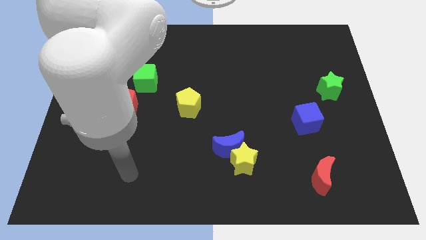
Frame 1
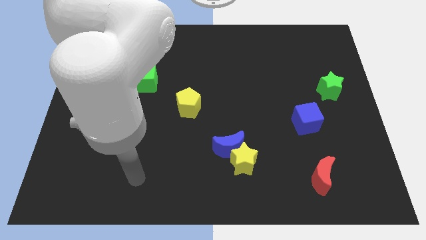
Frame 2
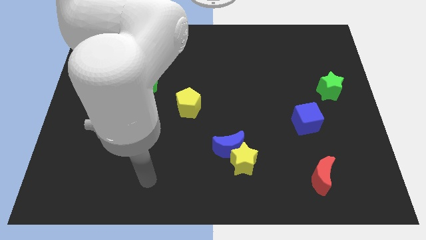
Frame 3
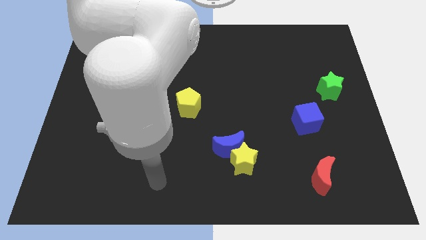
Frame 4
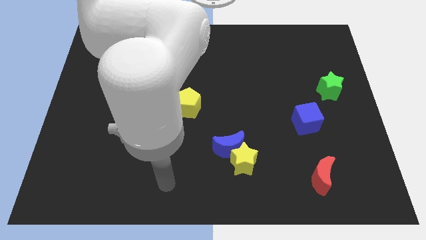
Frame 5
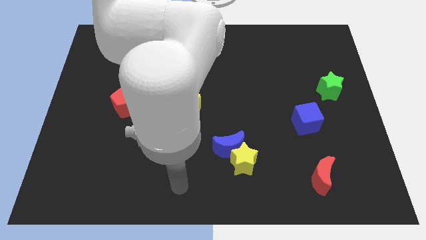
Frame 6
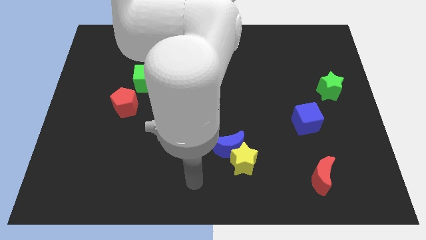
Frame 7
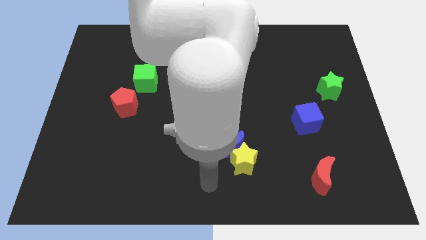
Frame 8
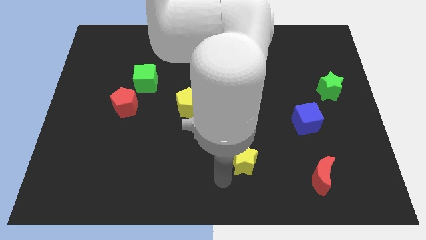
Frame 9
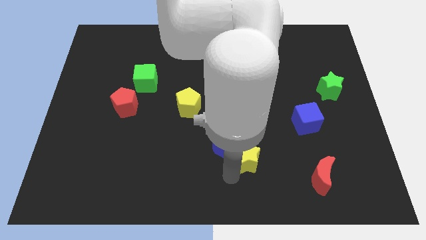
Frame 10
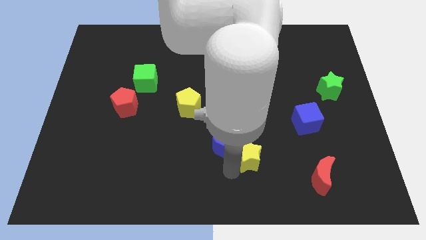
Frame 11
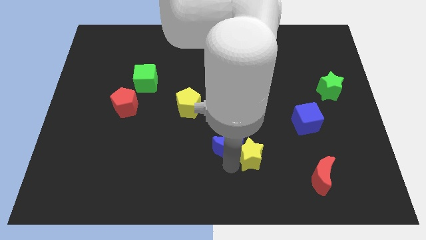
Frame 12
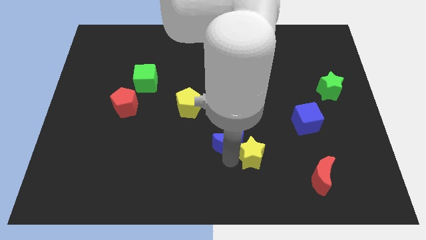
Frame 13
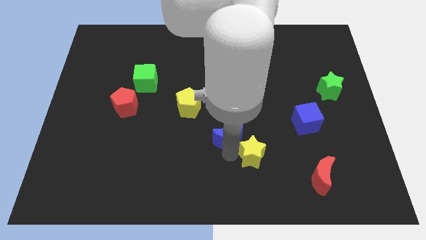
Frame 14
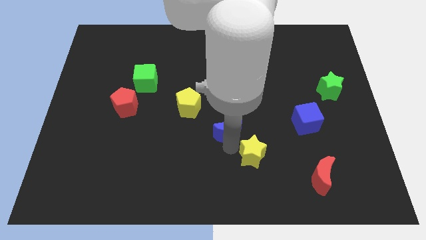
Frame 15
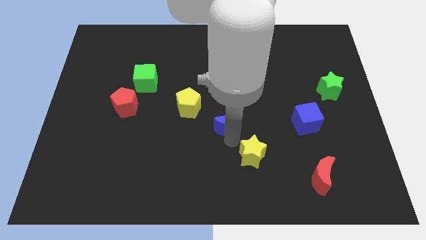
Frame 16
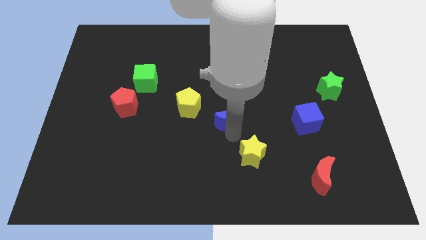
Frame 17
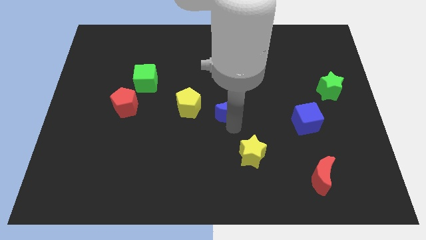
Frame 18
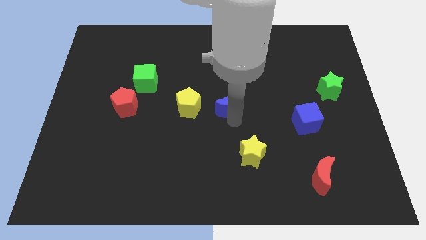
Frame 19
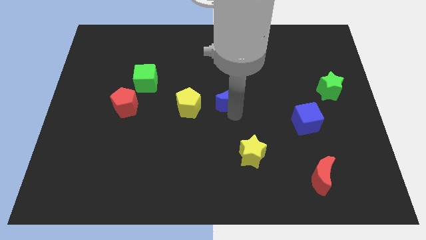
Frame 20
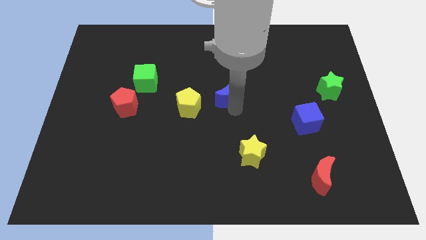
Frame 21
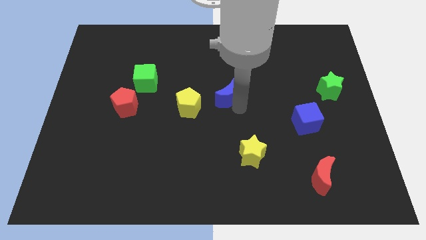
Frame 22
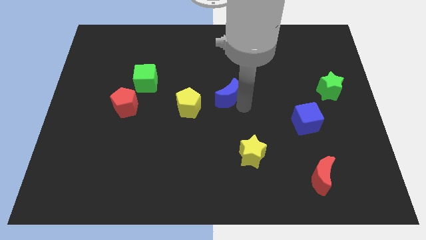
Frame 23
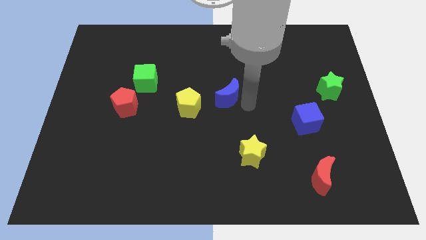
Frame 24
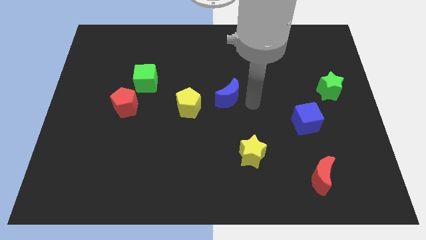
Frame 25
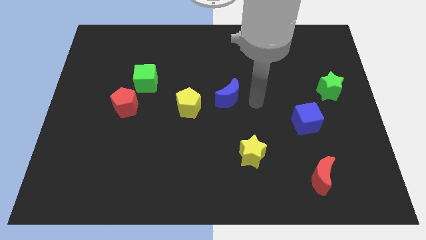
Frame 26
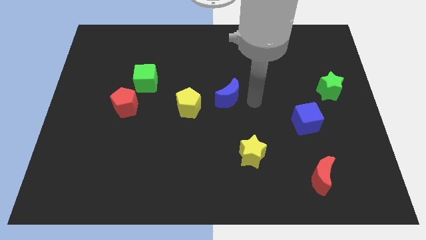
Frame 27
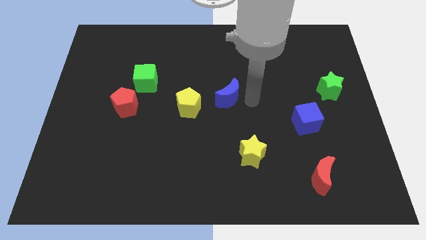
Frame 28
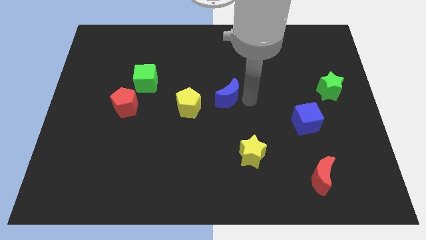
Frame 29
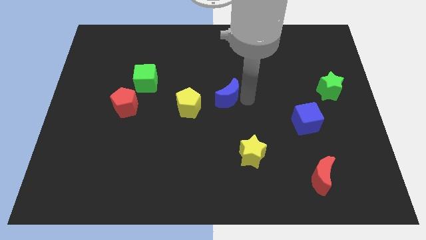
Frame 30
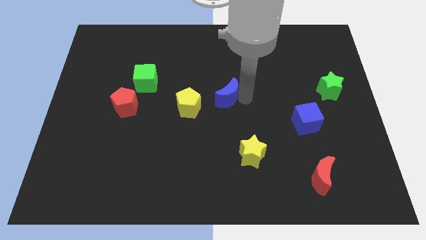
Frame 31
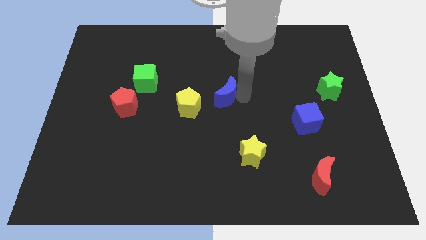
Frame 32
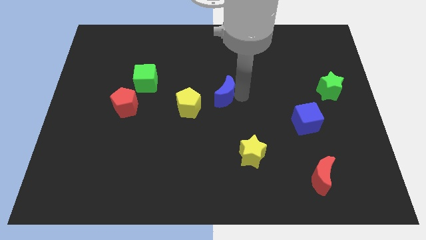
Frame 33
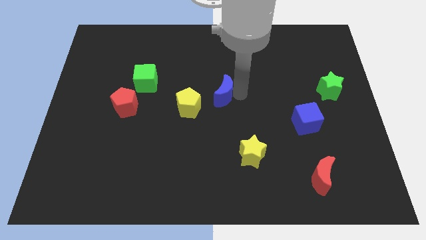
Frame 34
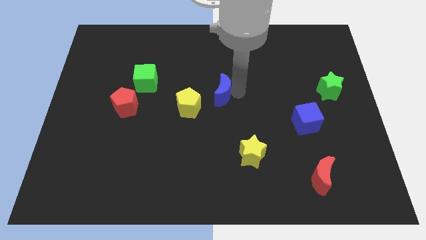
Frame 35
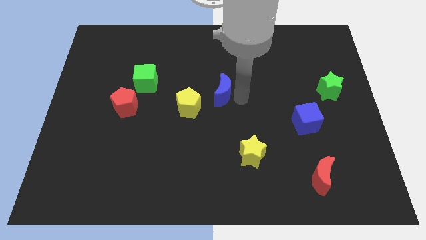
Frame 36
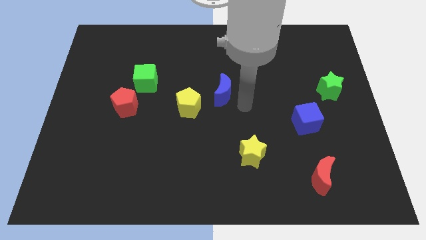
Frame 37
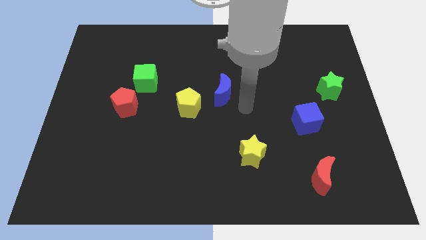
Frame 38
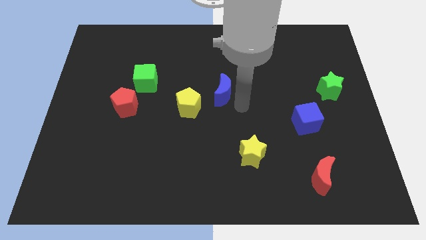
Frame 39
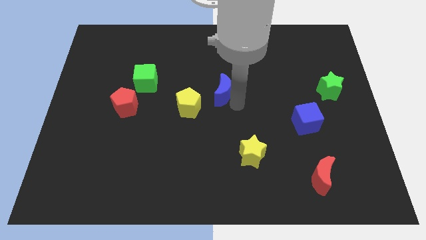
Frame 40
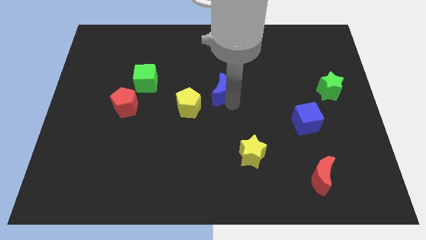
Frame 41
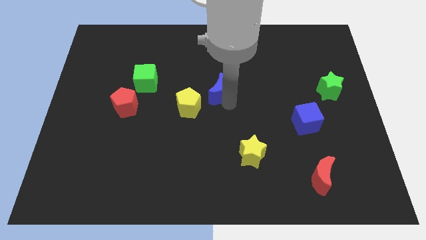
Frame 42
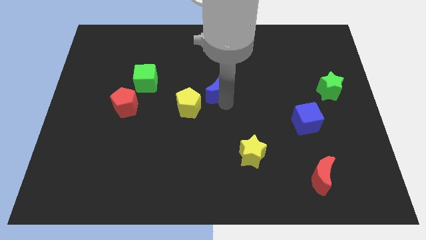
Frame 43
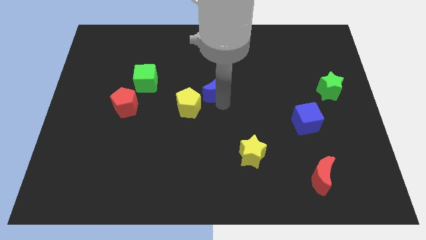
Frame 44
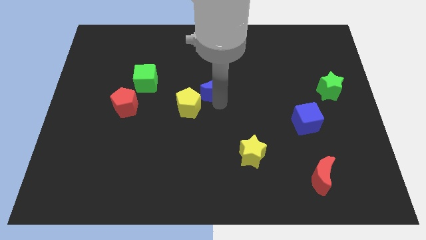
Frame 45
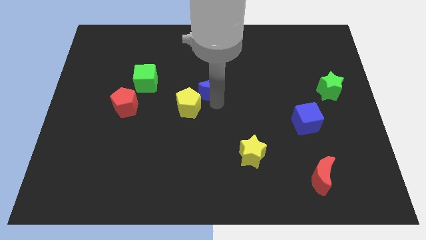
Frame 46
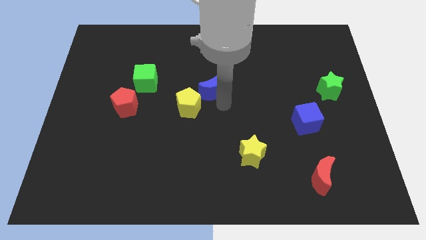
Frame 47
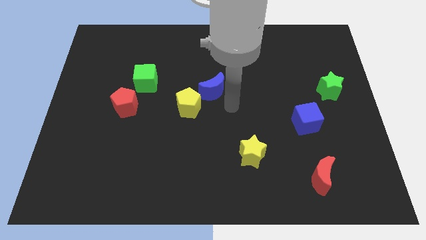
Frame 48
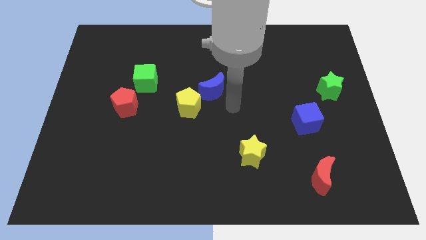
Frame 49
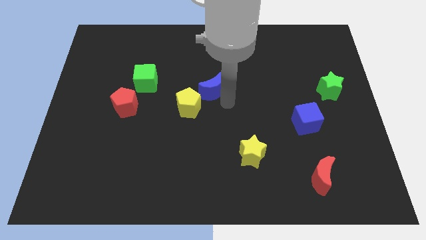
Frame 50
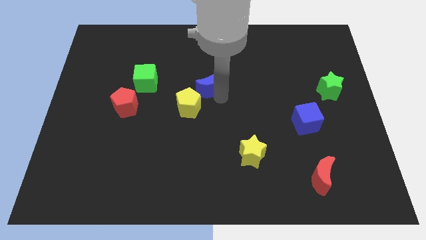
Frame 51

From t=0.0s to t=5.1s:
put the blue moon to the top side of the yellow pentagon

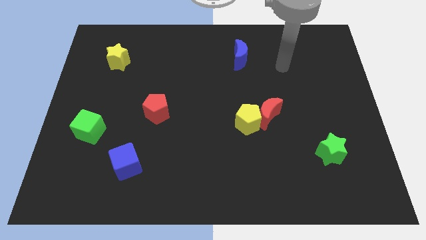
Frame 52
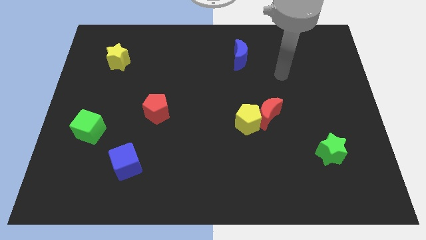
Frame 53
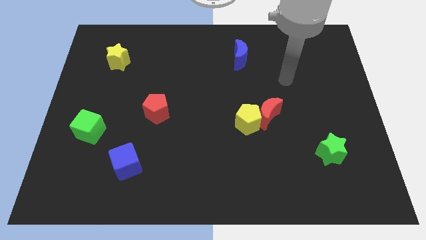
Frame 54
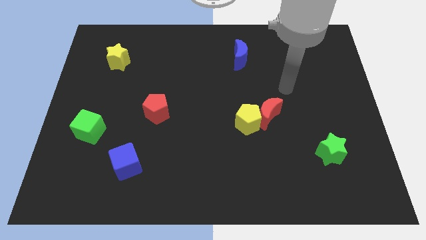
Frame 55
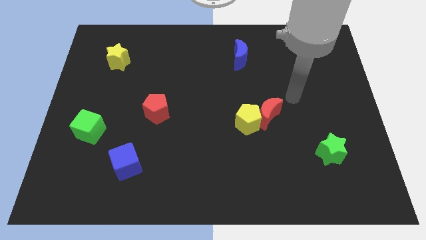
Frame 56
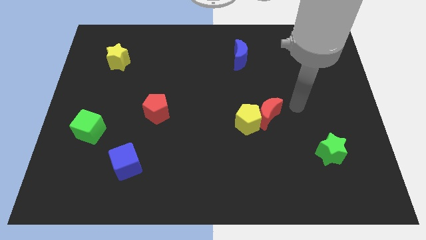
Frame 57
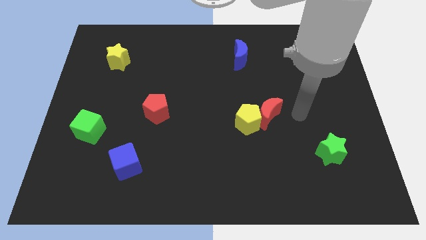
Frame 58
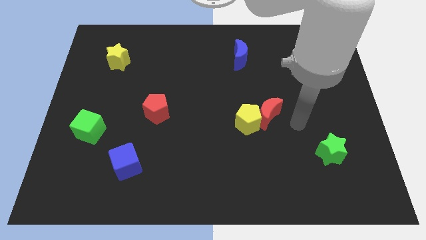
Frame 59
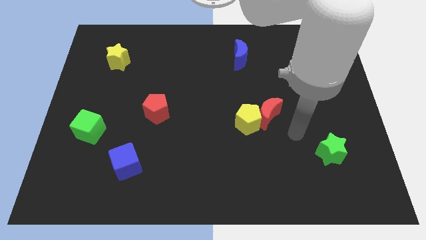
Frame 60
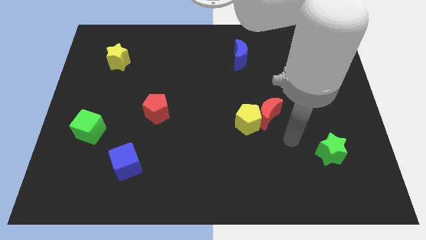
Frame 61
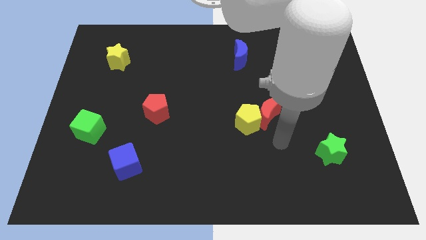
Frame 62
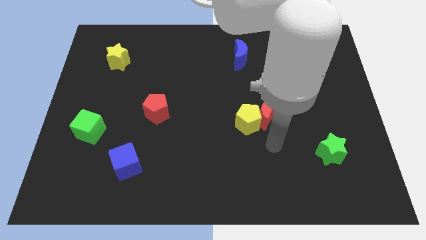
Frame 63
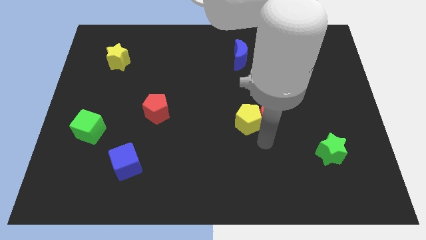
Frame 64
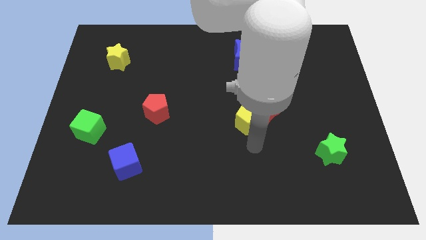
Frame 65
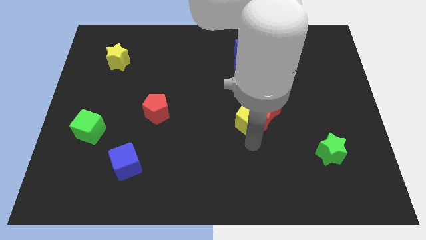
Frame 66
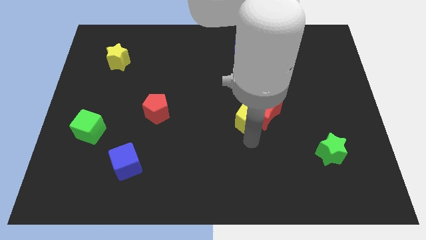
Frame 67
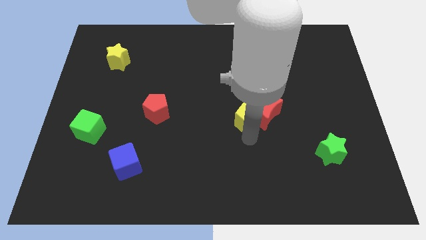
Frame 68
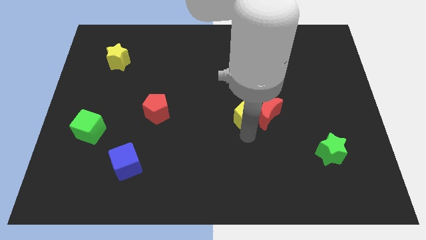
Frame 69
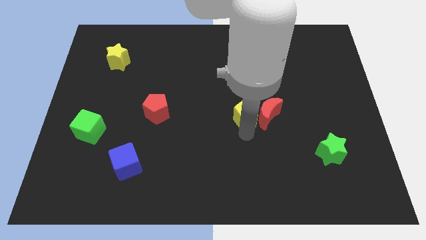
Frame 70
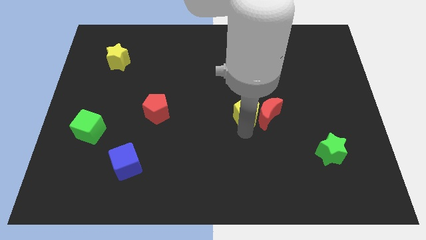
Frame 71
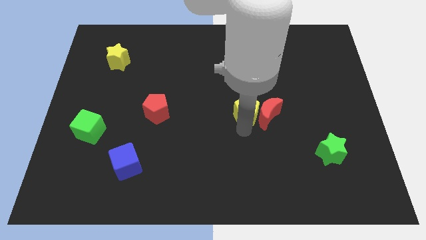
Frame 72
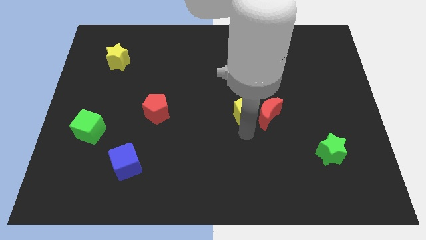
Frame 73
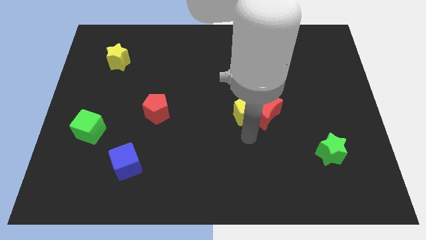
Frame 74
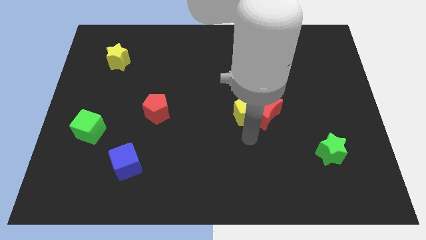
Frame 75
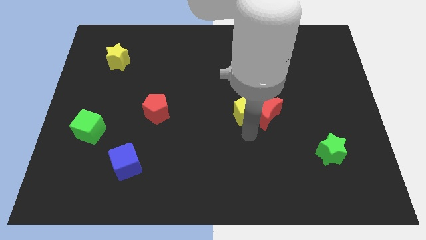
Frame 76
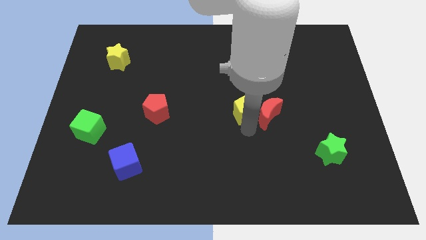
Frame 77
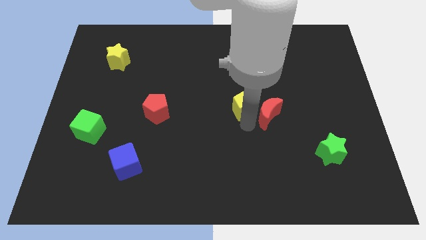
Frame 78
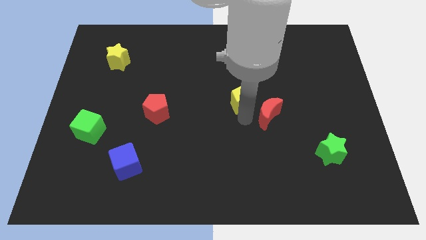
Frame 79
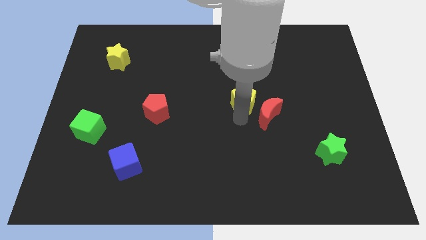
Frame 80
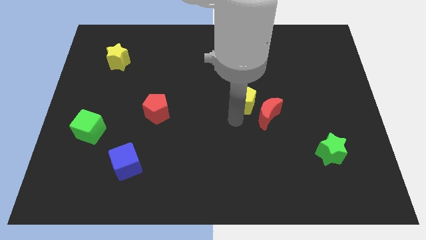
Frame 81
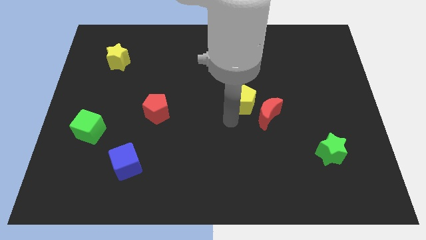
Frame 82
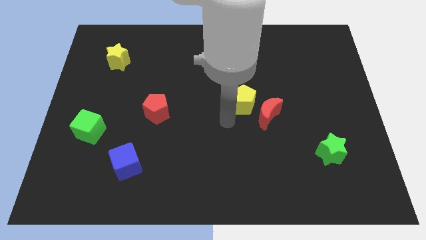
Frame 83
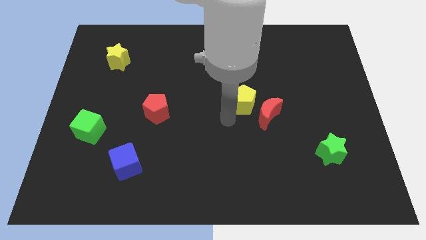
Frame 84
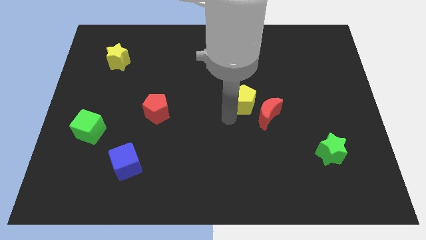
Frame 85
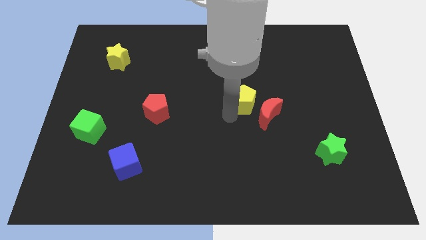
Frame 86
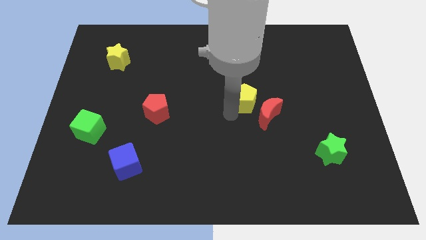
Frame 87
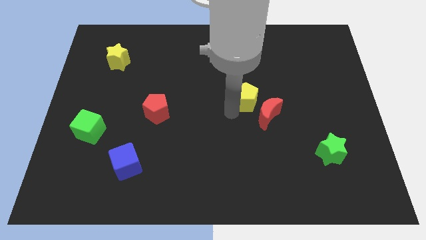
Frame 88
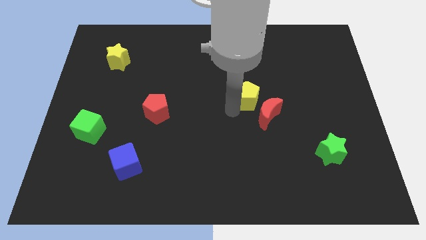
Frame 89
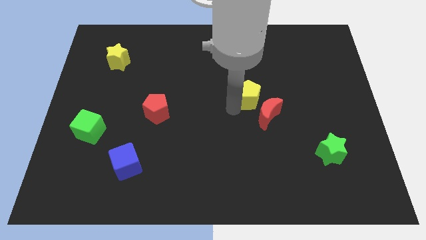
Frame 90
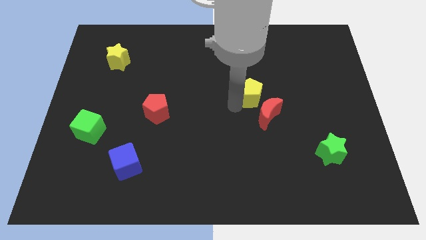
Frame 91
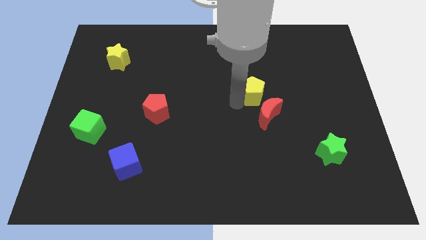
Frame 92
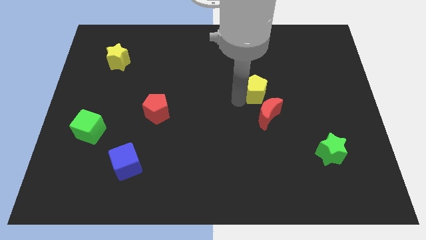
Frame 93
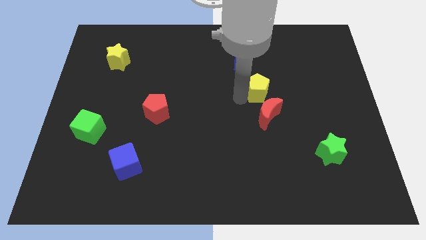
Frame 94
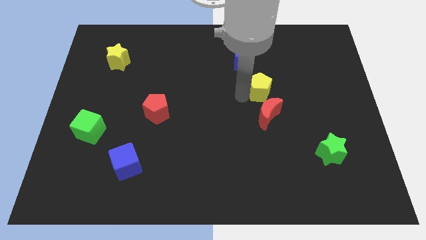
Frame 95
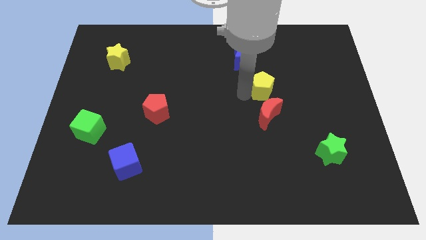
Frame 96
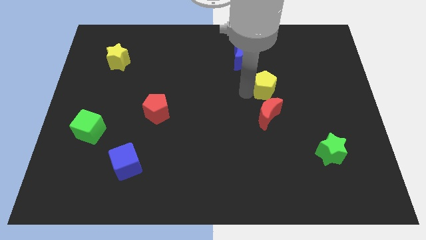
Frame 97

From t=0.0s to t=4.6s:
push the yellow pentagon to the bottom right of the blue moon
